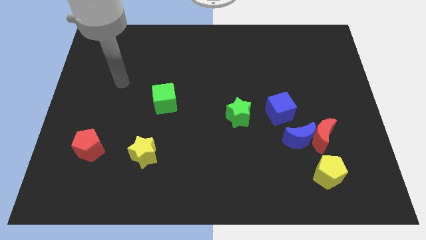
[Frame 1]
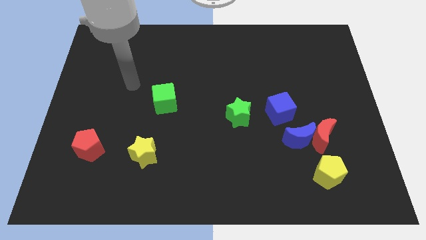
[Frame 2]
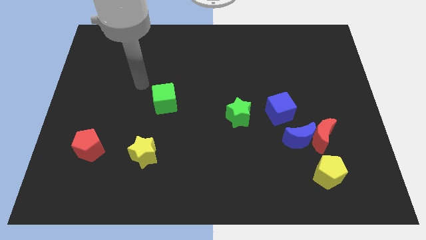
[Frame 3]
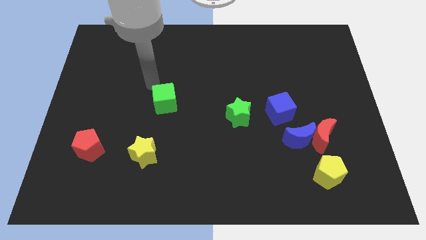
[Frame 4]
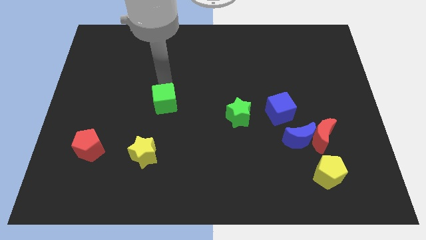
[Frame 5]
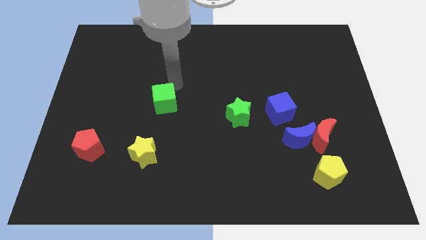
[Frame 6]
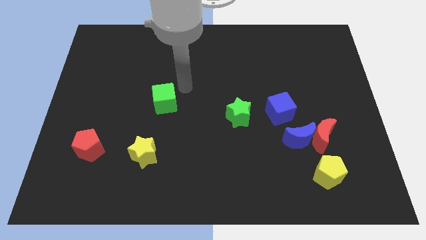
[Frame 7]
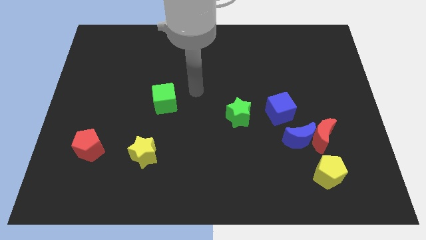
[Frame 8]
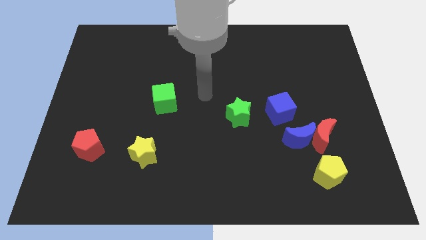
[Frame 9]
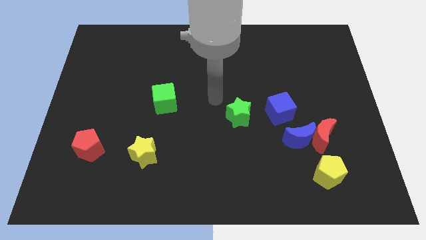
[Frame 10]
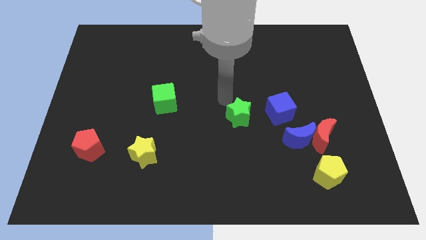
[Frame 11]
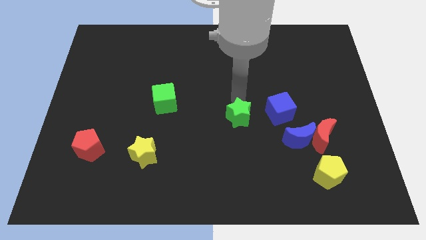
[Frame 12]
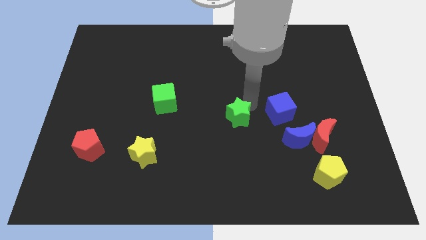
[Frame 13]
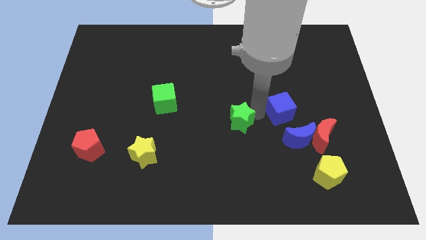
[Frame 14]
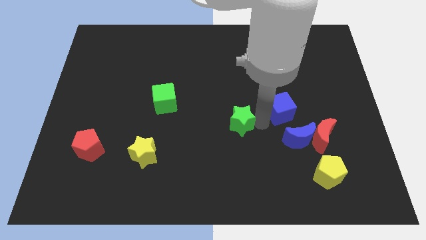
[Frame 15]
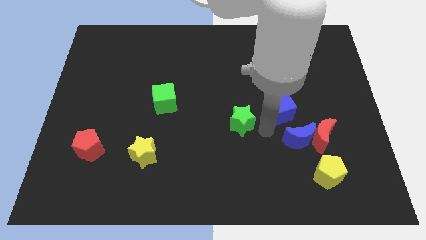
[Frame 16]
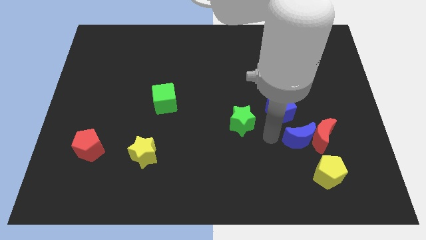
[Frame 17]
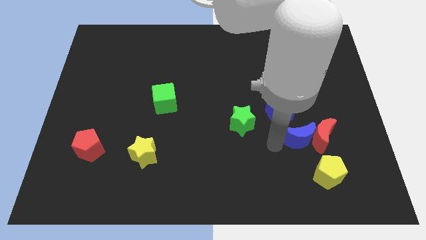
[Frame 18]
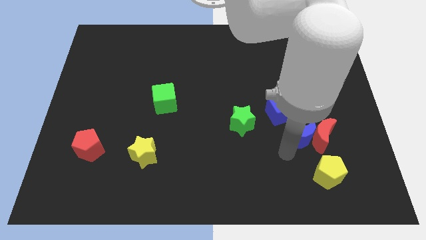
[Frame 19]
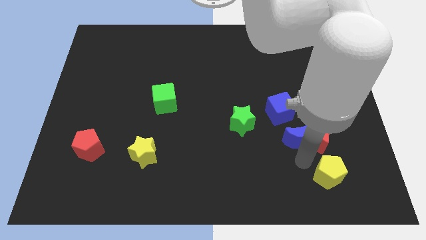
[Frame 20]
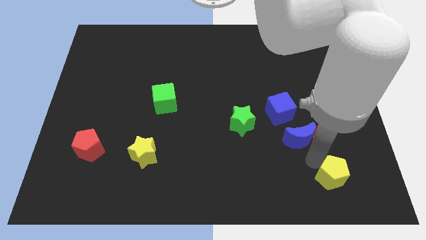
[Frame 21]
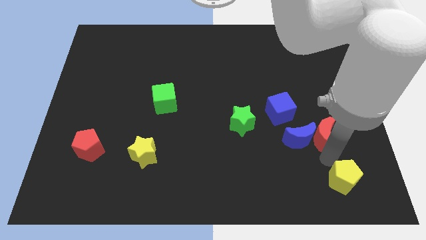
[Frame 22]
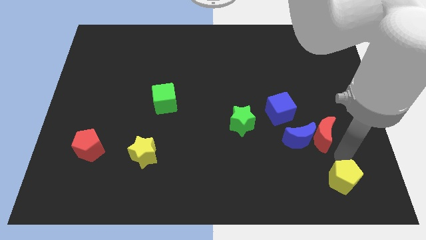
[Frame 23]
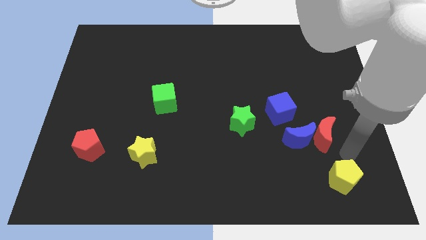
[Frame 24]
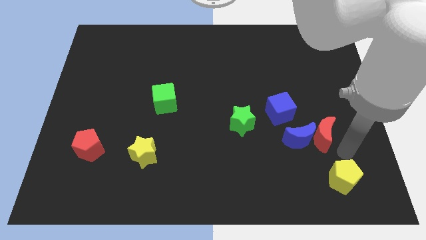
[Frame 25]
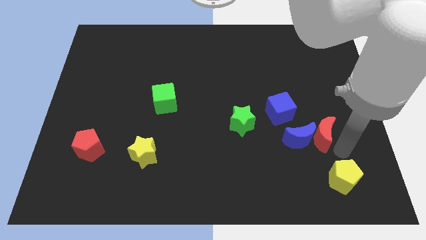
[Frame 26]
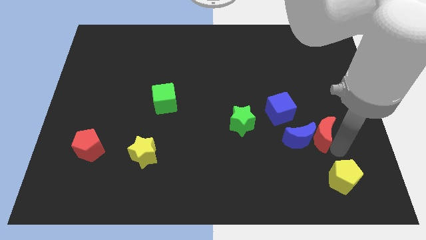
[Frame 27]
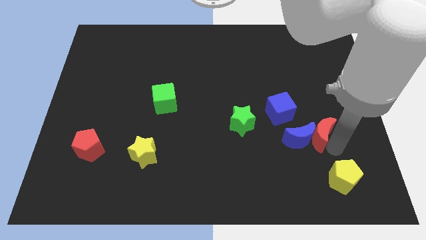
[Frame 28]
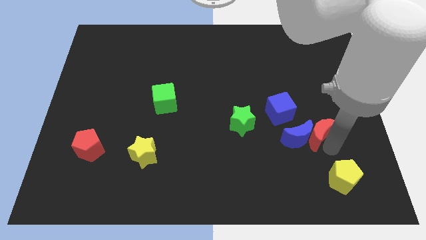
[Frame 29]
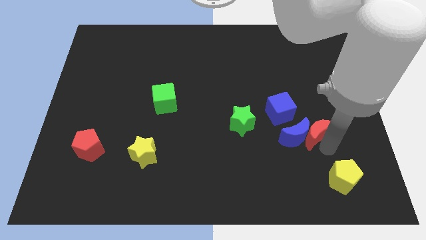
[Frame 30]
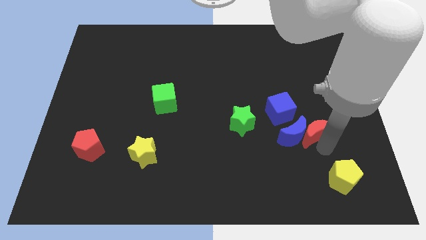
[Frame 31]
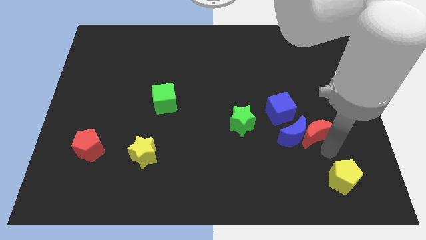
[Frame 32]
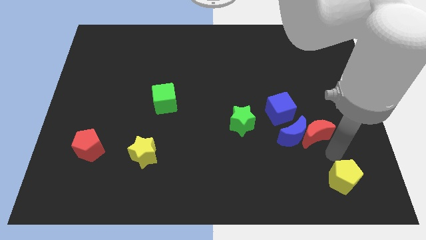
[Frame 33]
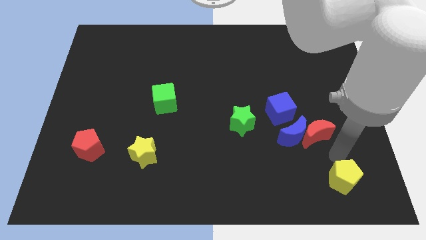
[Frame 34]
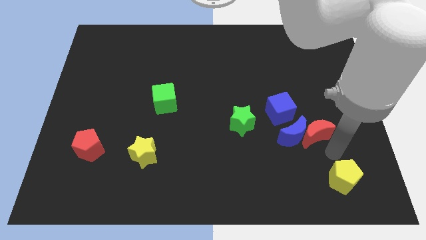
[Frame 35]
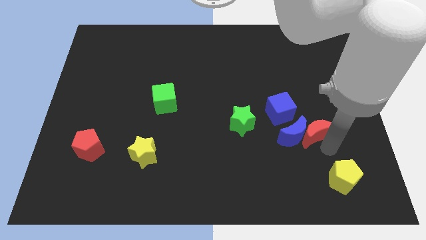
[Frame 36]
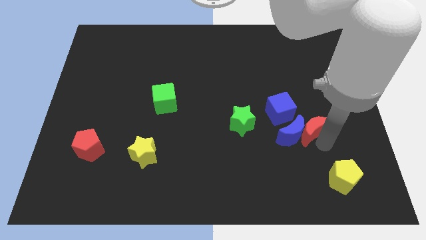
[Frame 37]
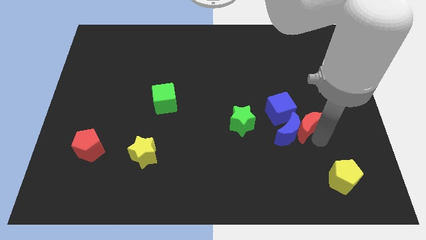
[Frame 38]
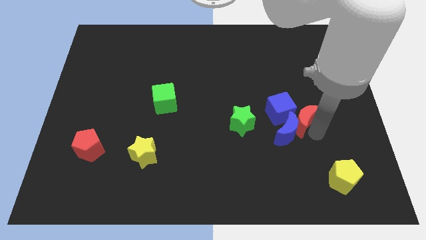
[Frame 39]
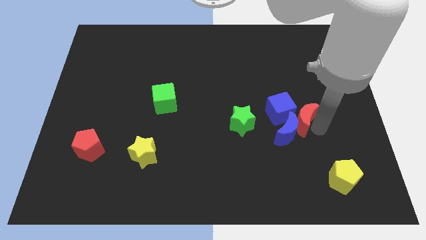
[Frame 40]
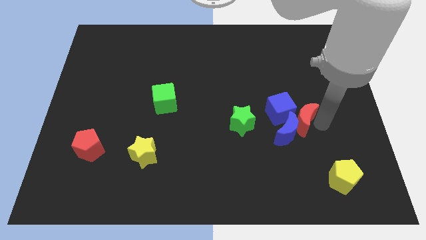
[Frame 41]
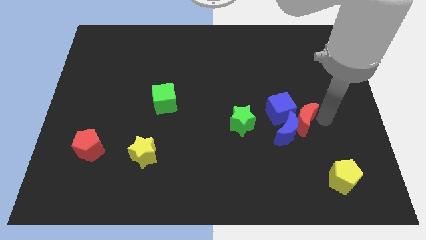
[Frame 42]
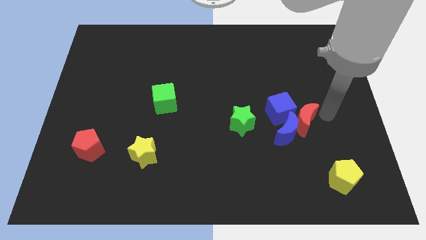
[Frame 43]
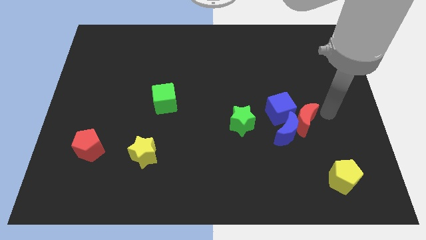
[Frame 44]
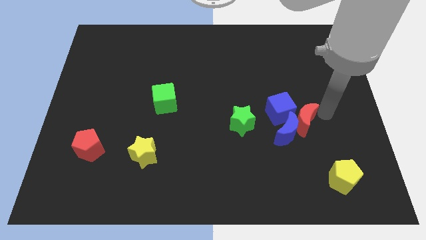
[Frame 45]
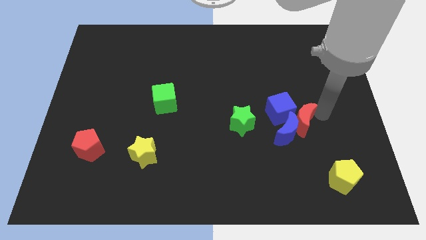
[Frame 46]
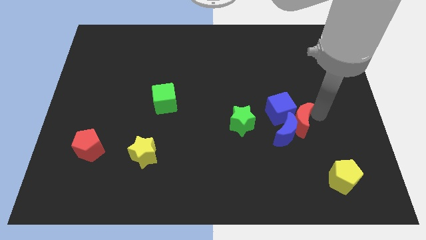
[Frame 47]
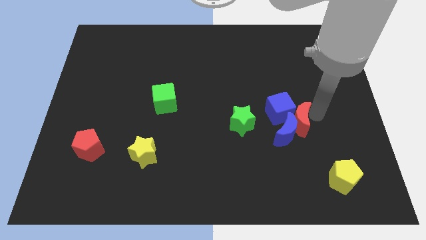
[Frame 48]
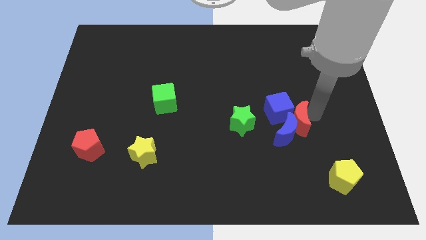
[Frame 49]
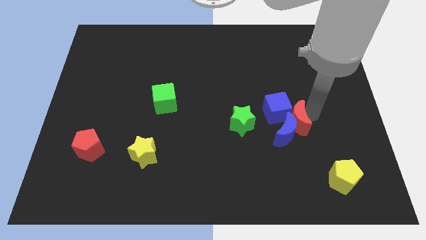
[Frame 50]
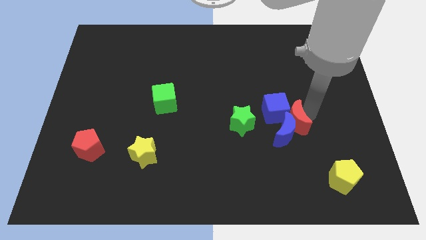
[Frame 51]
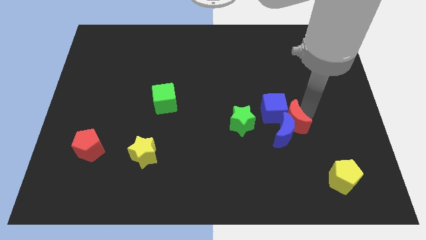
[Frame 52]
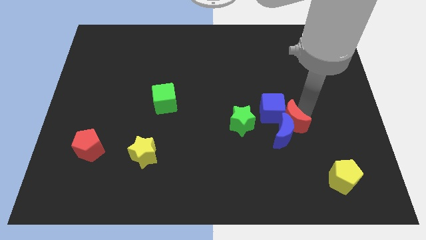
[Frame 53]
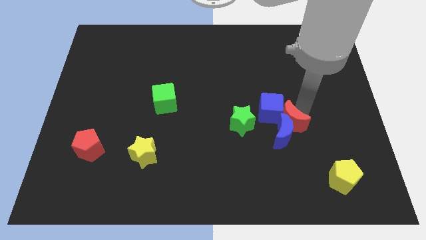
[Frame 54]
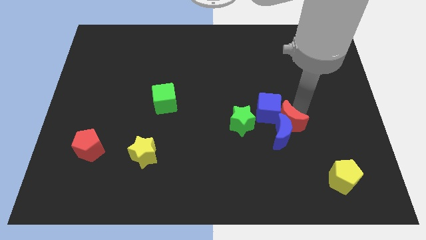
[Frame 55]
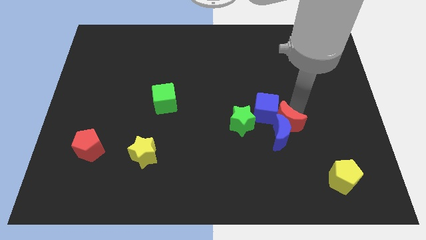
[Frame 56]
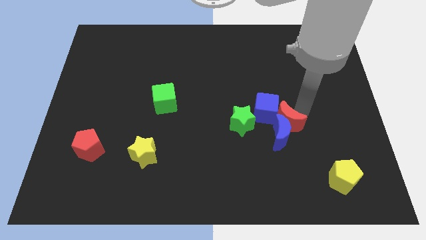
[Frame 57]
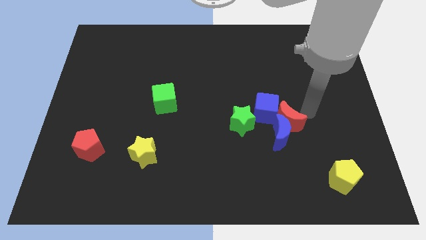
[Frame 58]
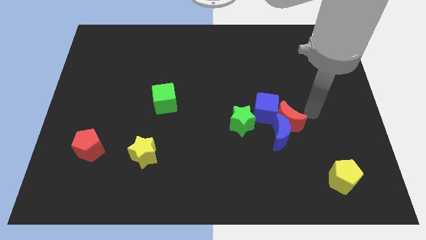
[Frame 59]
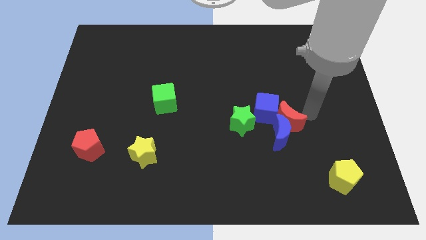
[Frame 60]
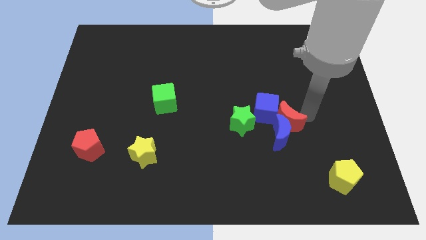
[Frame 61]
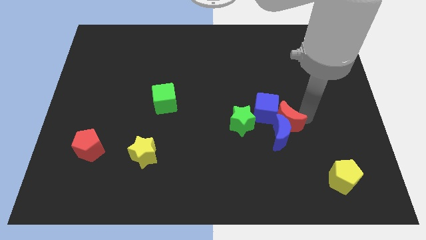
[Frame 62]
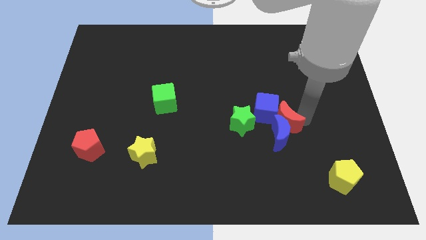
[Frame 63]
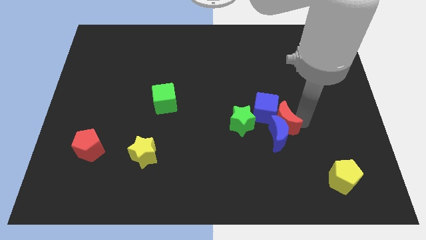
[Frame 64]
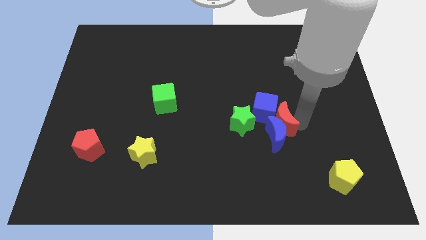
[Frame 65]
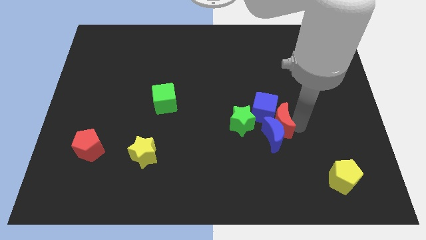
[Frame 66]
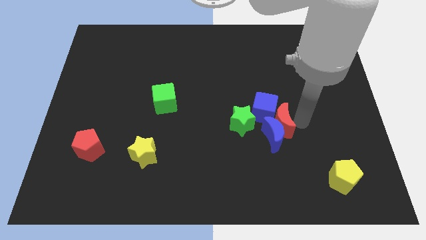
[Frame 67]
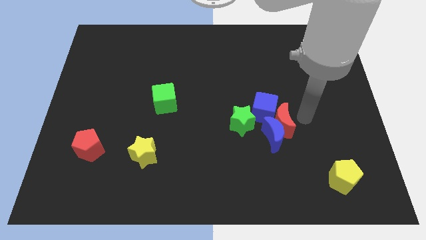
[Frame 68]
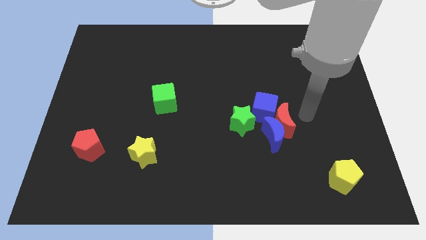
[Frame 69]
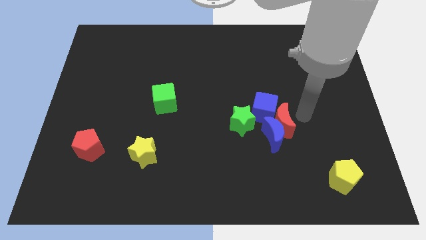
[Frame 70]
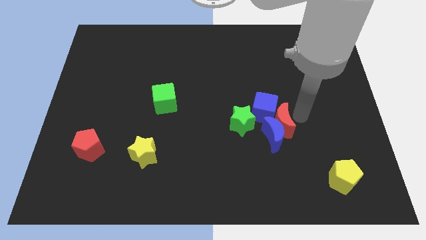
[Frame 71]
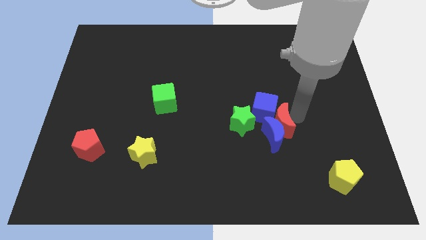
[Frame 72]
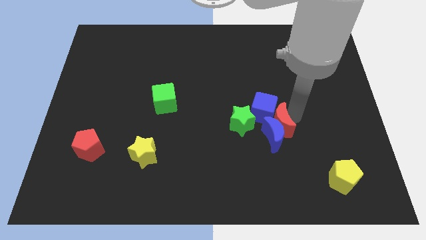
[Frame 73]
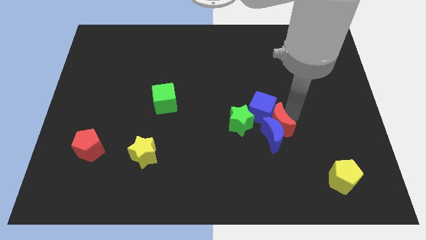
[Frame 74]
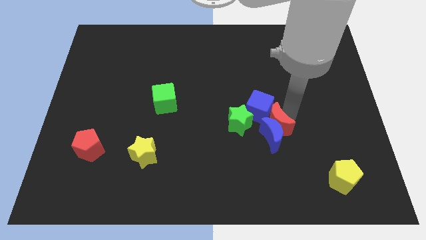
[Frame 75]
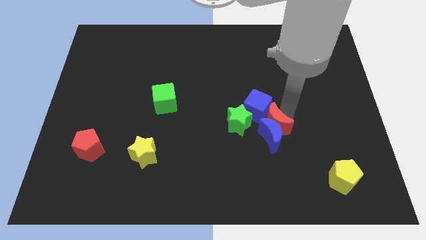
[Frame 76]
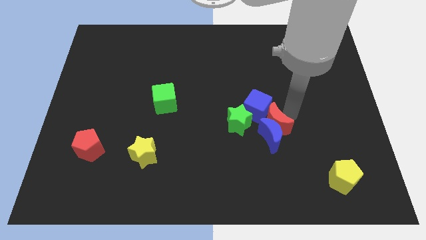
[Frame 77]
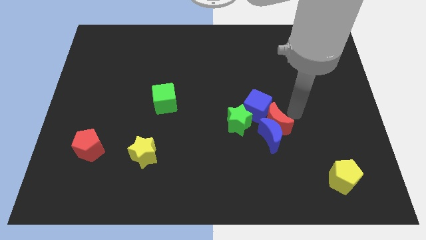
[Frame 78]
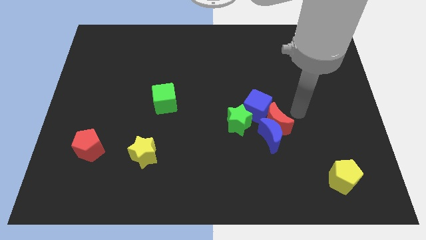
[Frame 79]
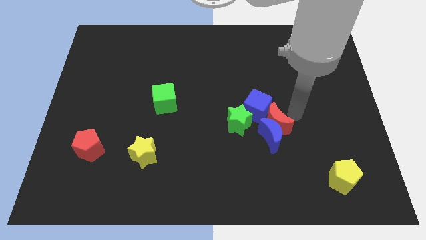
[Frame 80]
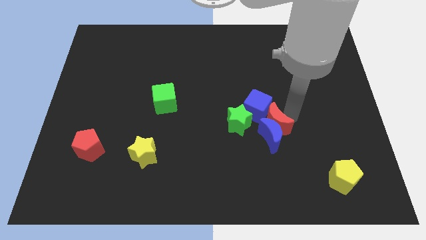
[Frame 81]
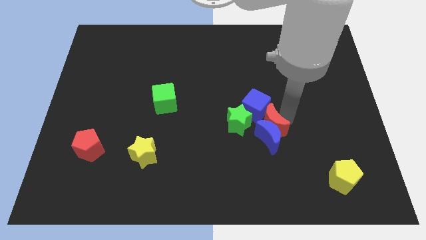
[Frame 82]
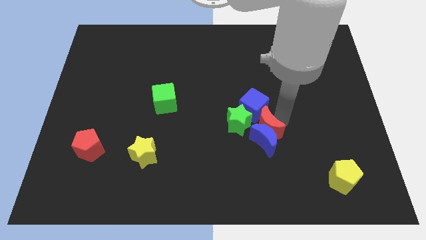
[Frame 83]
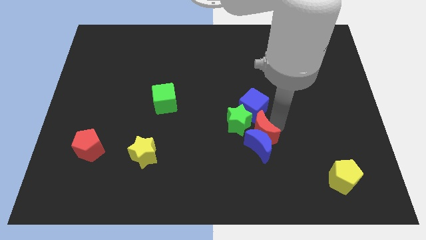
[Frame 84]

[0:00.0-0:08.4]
push the red moon next to the green star
